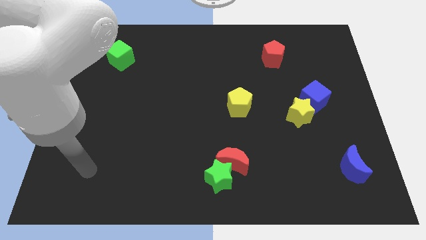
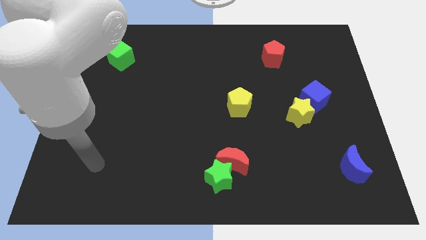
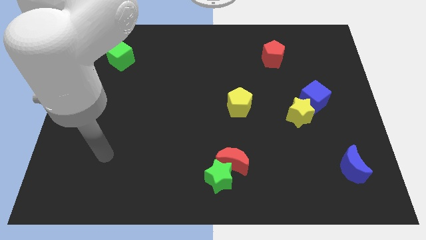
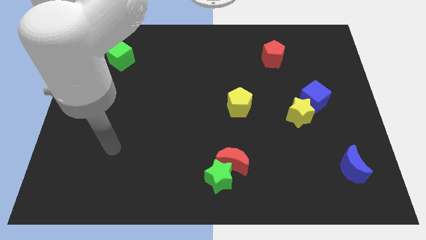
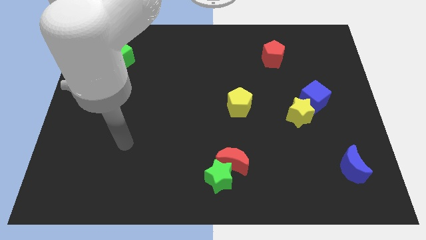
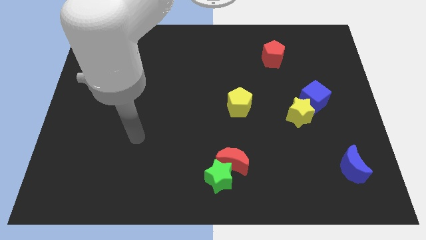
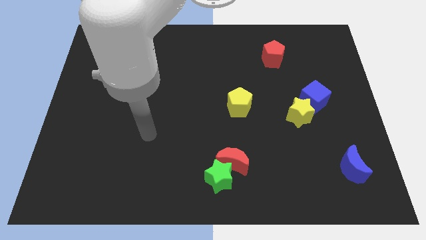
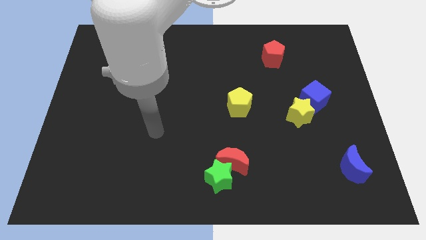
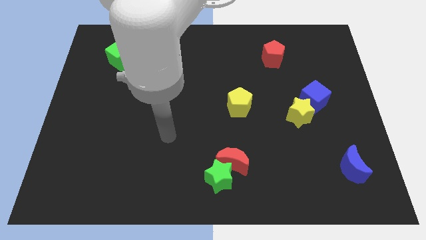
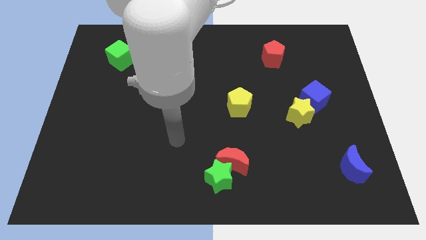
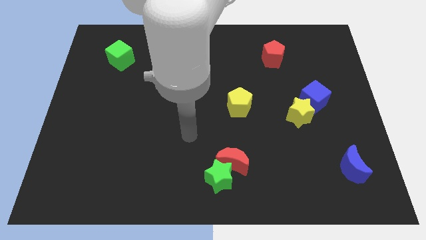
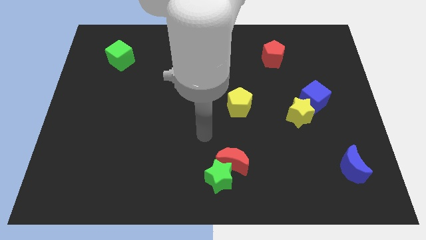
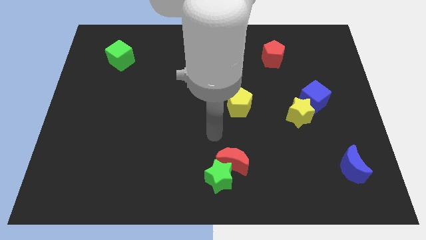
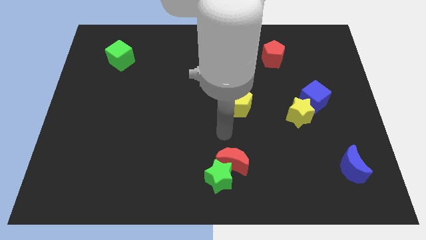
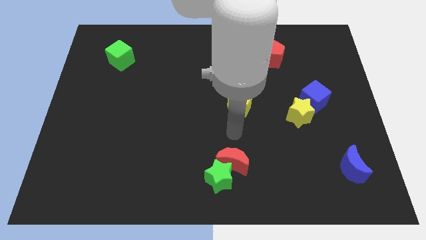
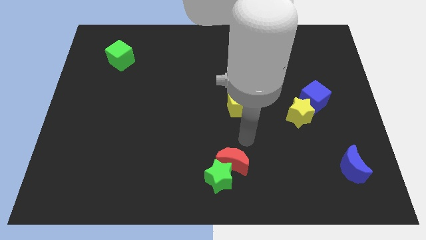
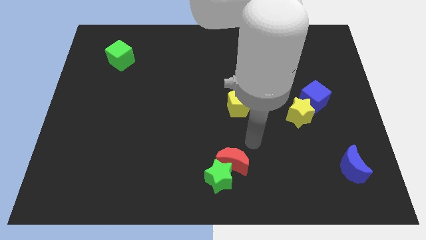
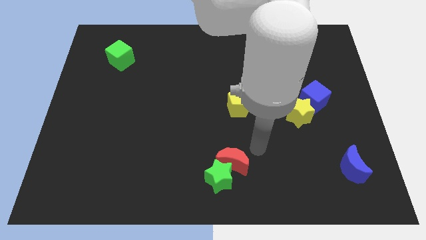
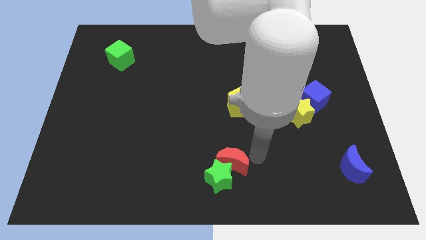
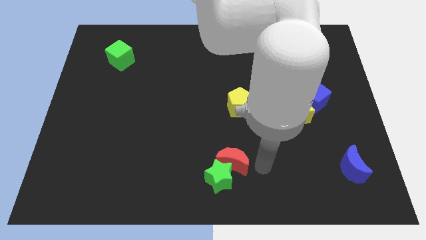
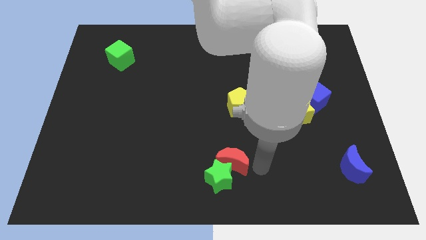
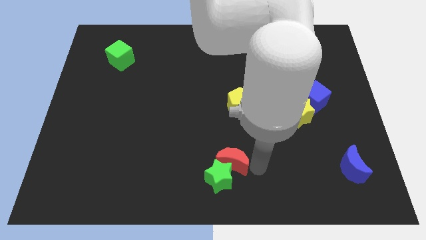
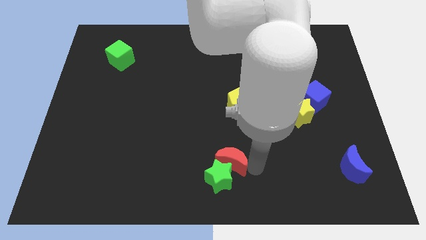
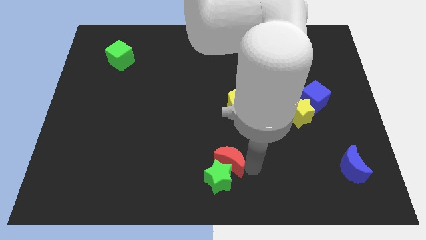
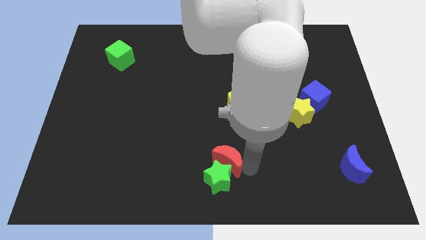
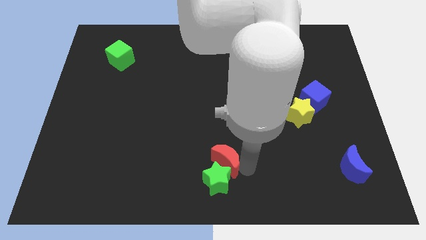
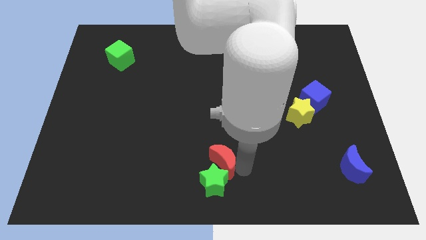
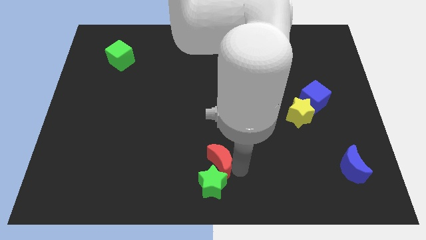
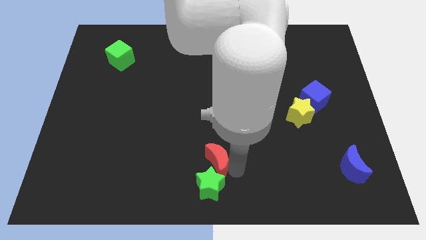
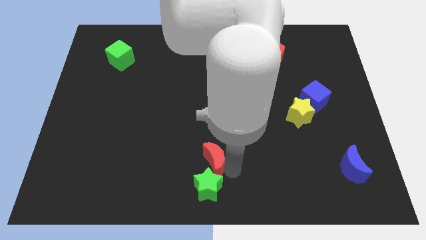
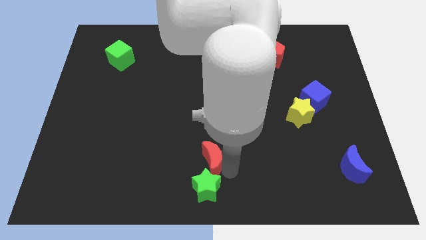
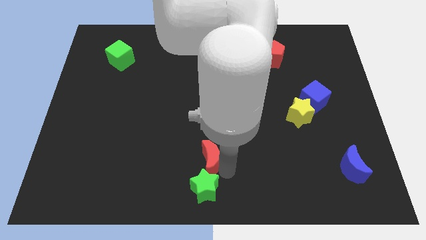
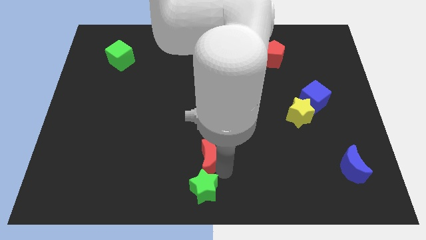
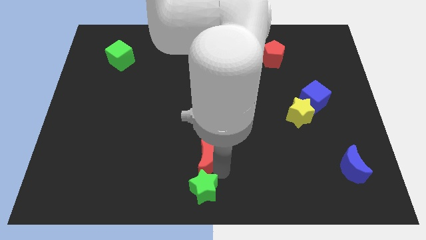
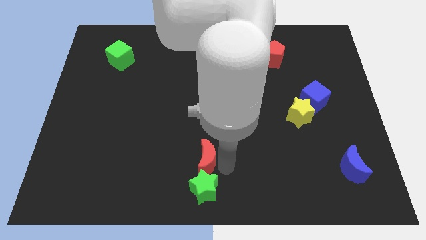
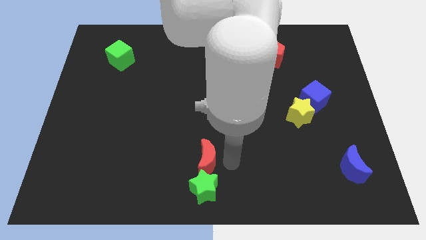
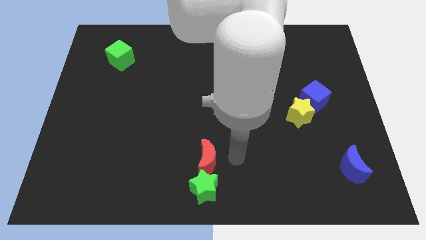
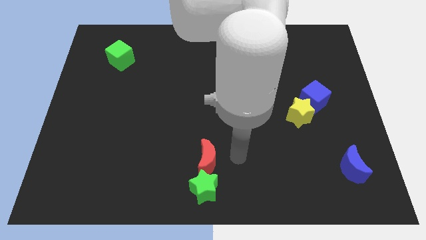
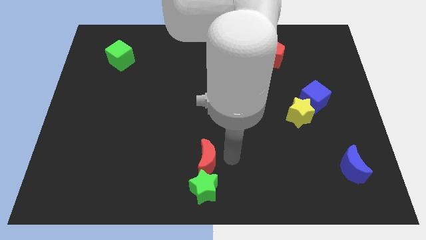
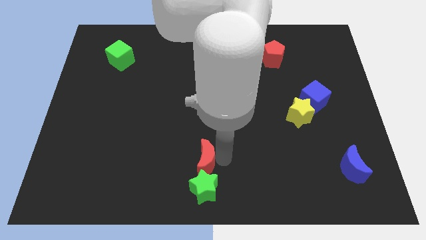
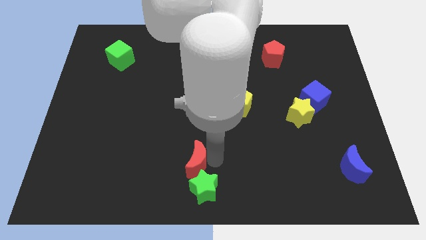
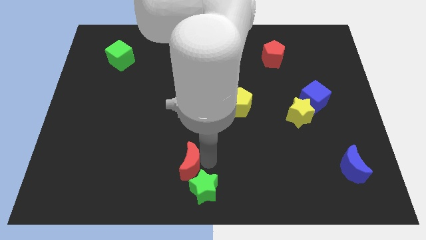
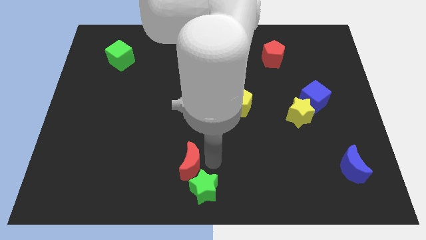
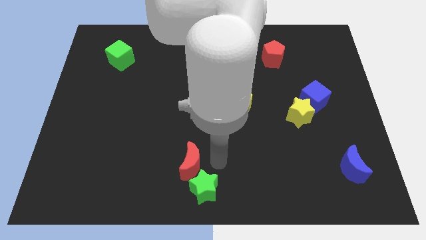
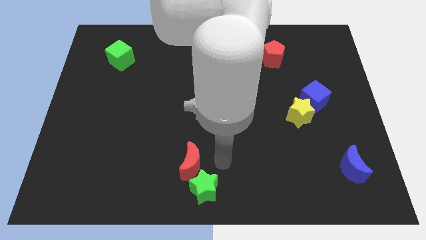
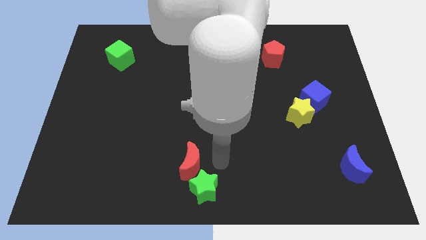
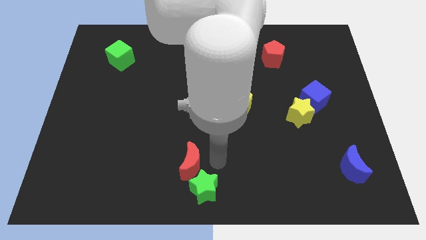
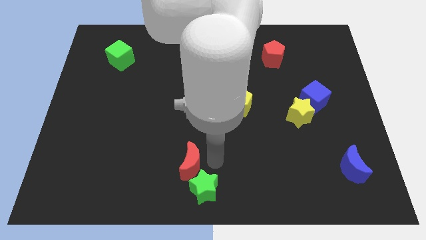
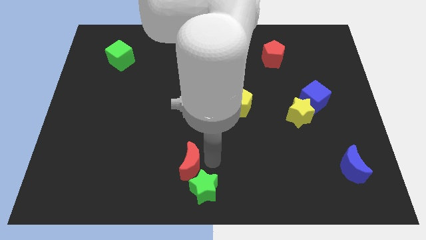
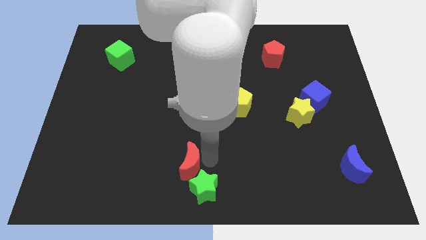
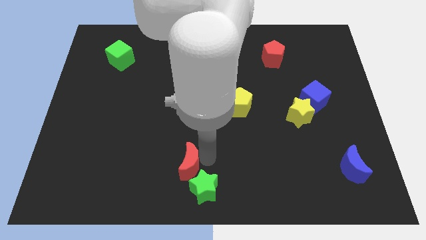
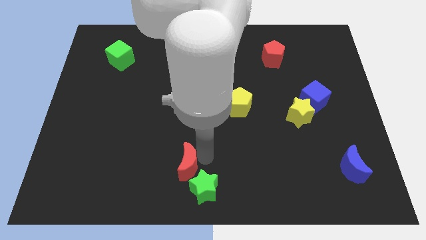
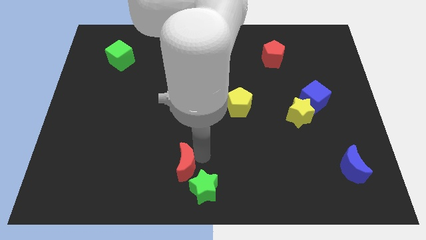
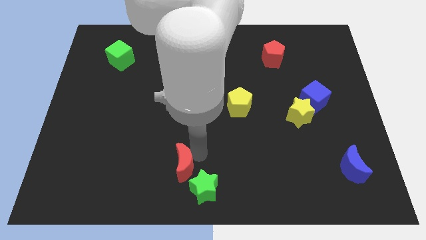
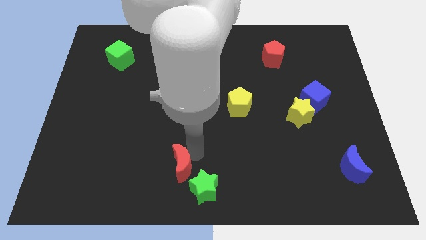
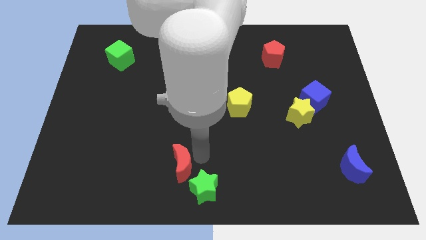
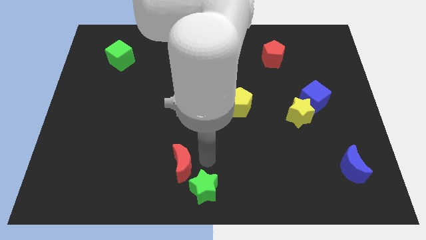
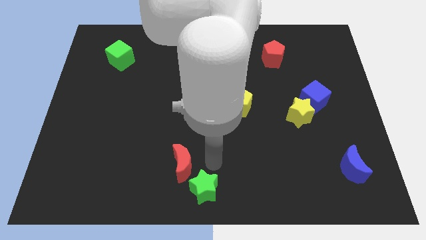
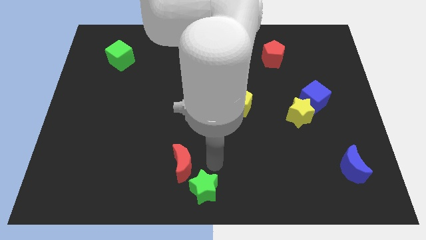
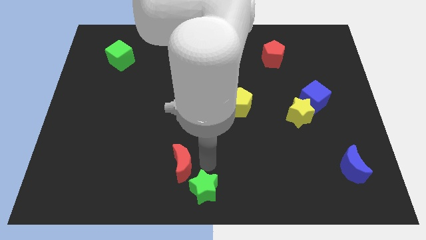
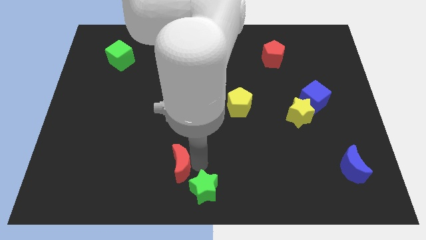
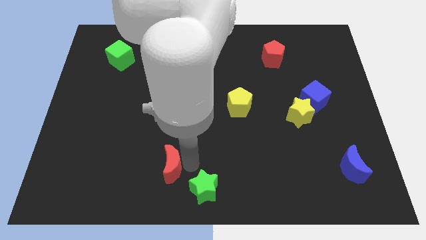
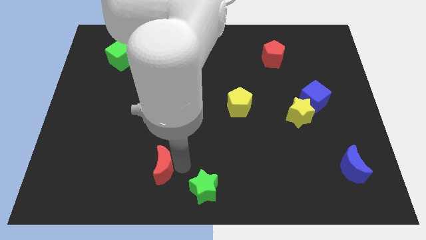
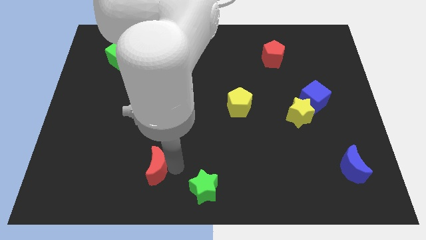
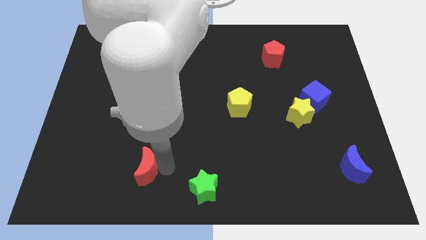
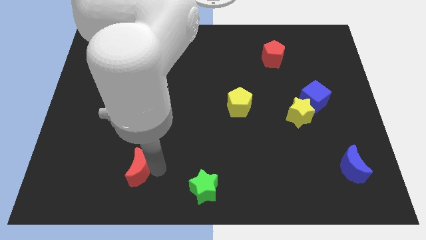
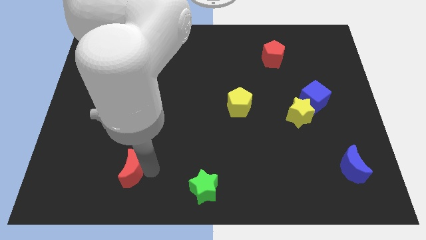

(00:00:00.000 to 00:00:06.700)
move the red moon to the left

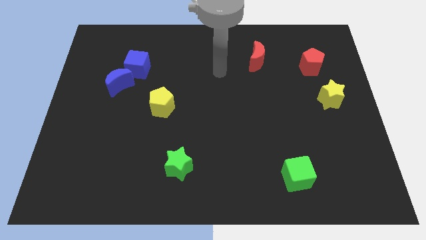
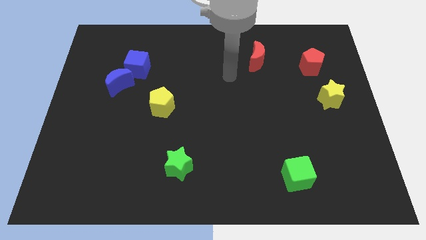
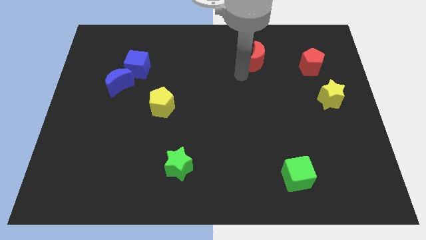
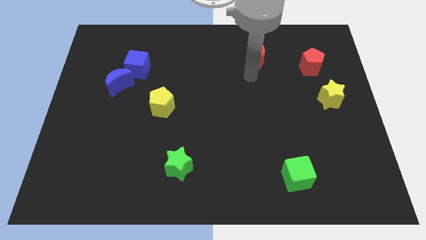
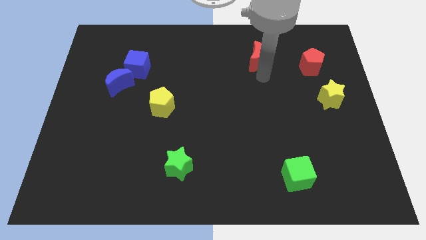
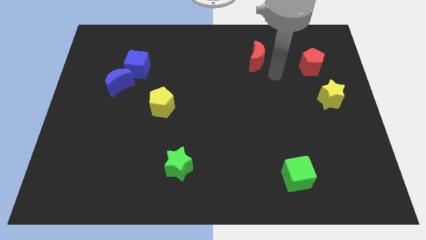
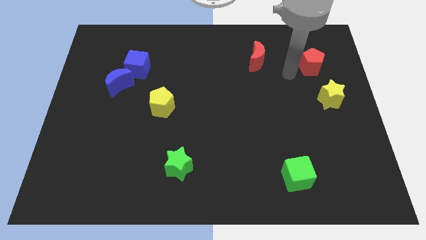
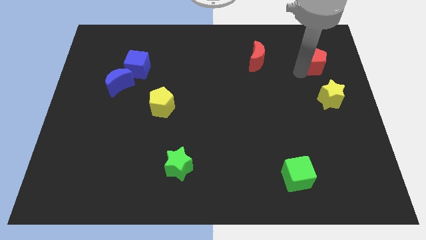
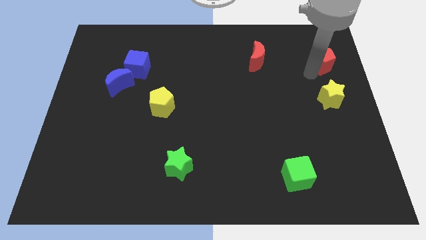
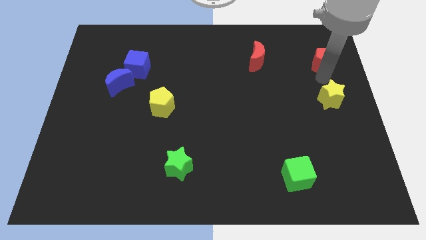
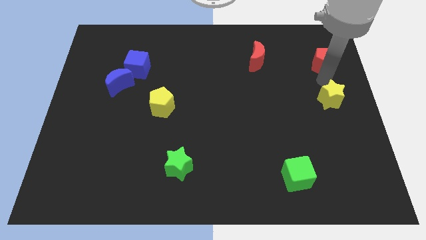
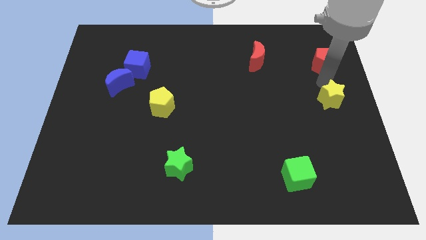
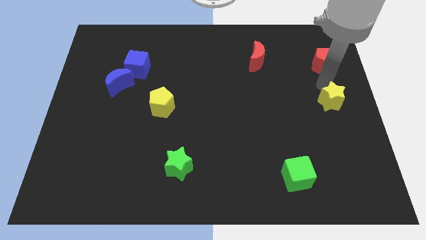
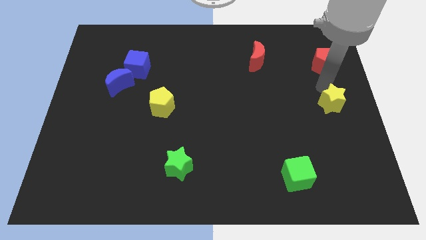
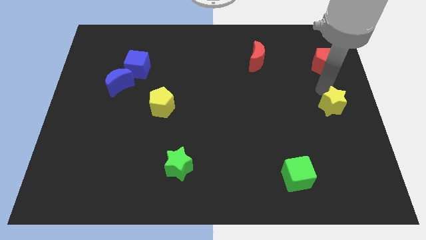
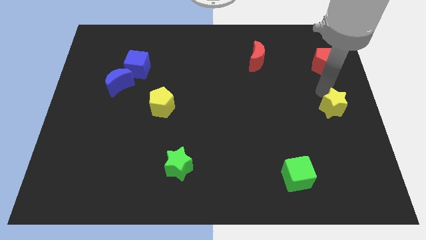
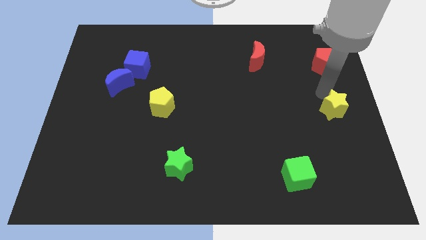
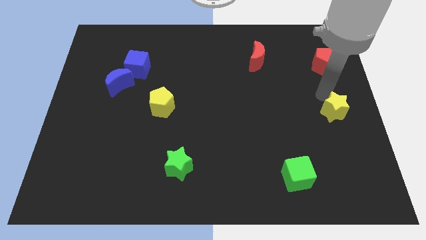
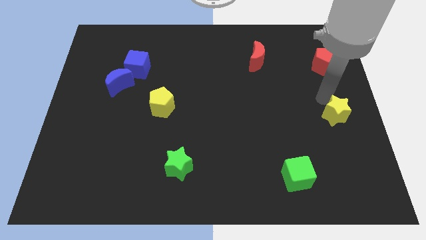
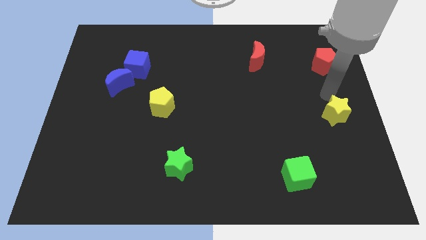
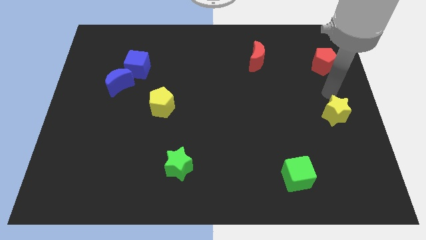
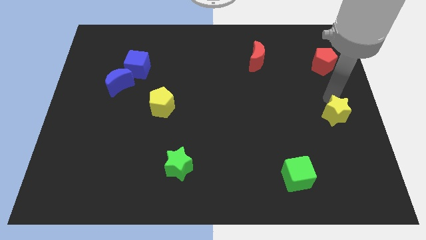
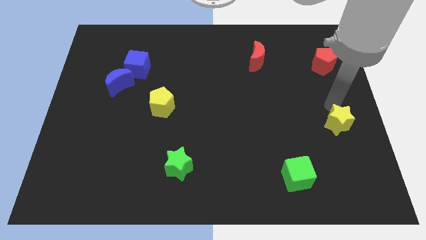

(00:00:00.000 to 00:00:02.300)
slightly push the yellow star down
